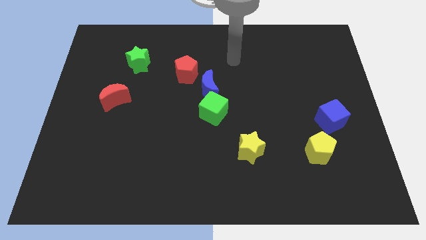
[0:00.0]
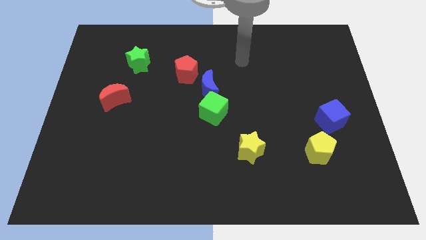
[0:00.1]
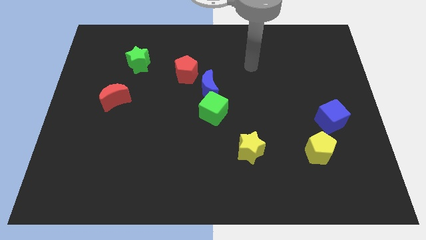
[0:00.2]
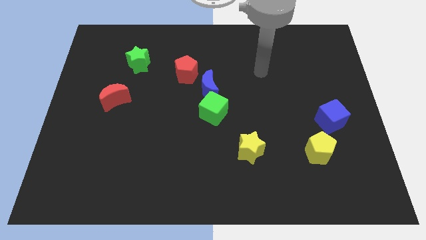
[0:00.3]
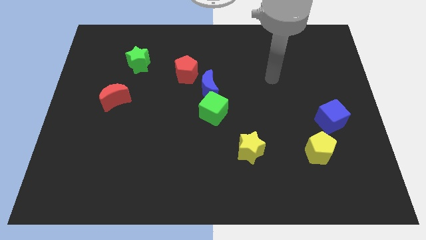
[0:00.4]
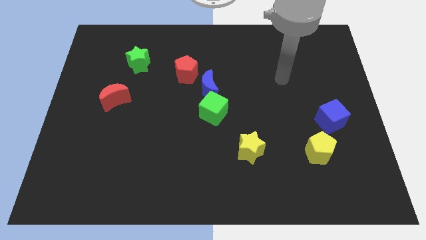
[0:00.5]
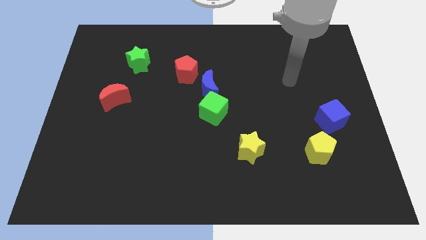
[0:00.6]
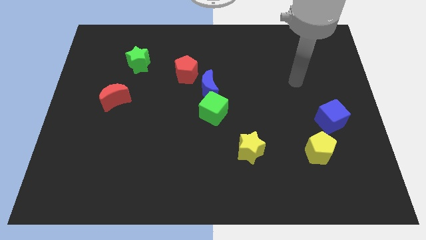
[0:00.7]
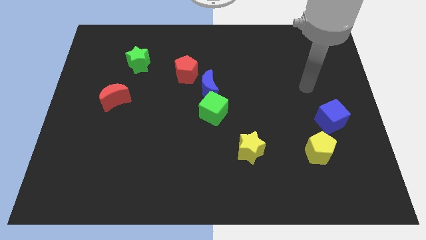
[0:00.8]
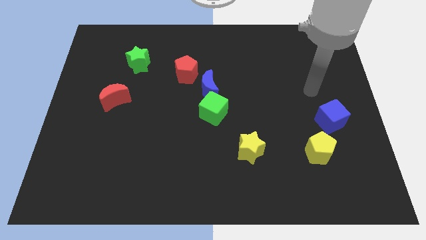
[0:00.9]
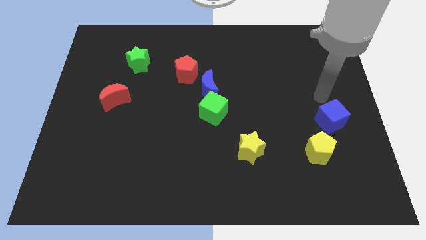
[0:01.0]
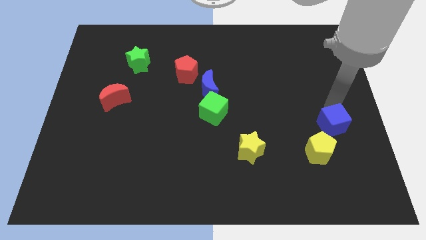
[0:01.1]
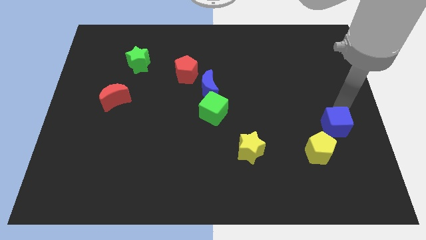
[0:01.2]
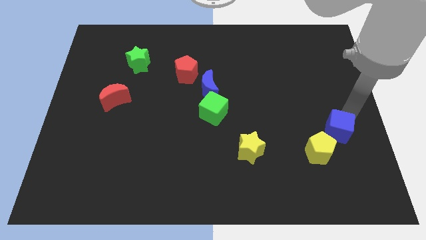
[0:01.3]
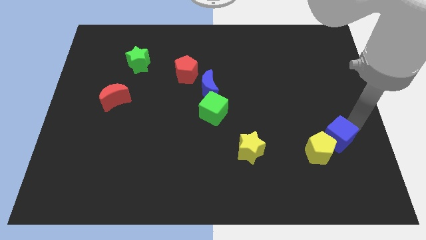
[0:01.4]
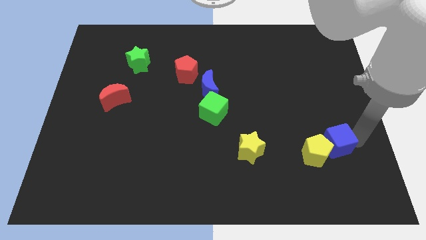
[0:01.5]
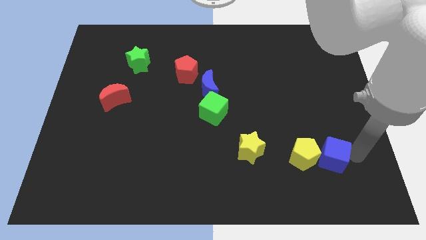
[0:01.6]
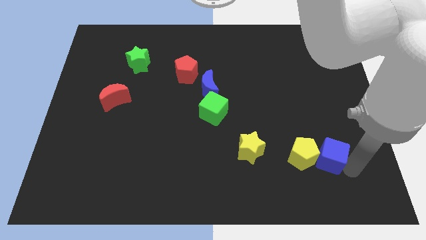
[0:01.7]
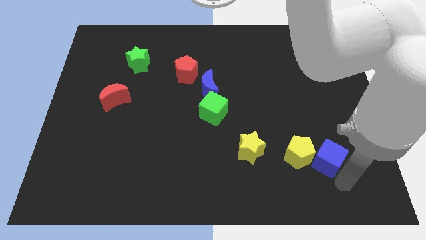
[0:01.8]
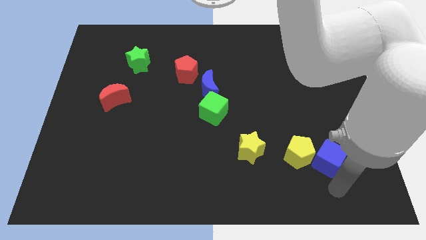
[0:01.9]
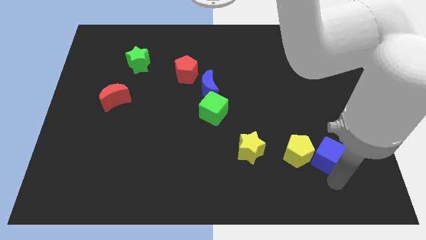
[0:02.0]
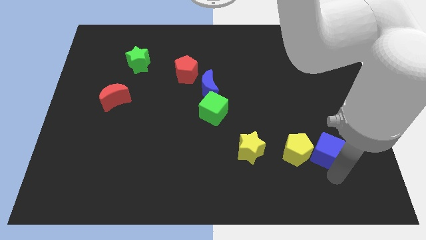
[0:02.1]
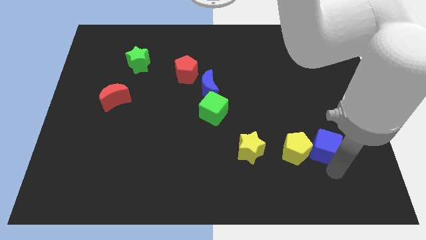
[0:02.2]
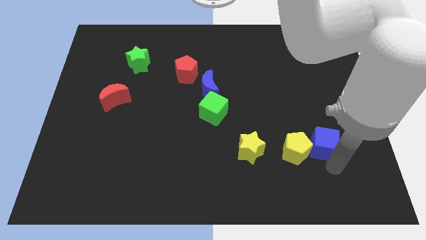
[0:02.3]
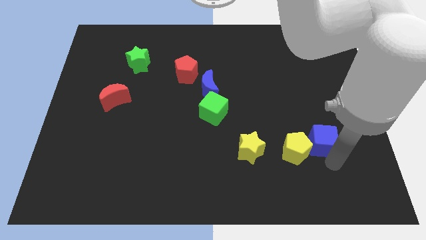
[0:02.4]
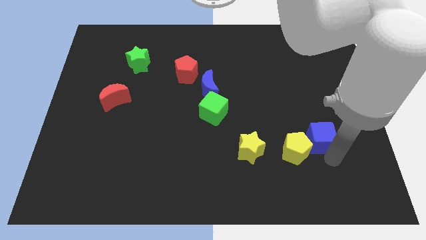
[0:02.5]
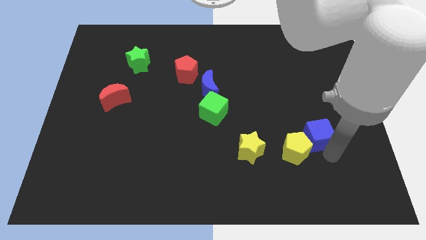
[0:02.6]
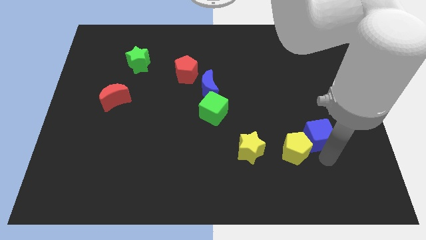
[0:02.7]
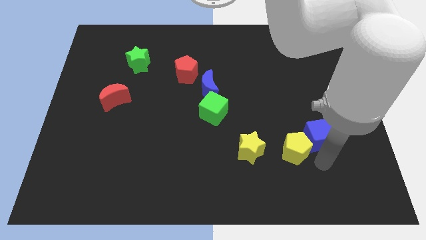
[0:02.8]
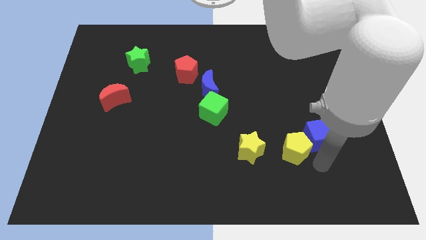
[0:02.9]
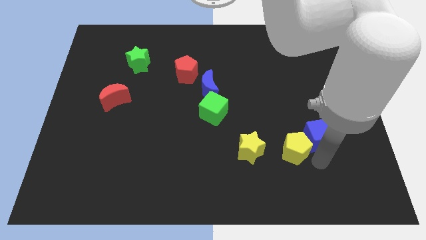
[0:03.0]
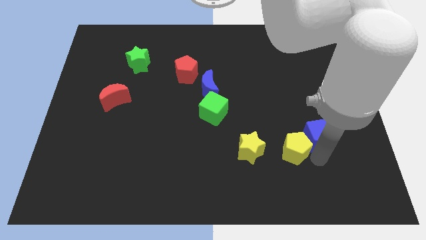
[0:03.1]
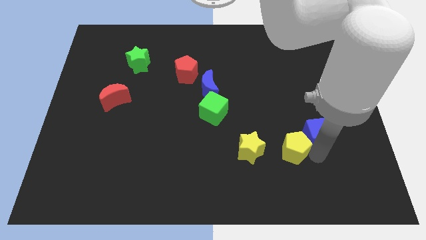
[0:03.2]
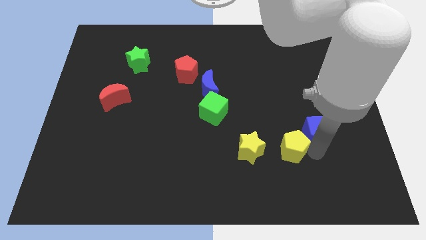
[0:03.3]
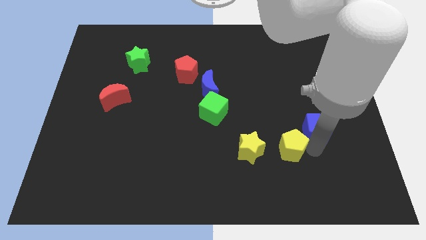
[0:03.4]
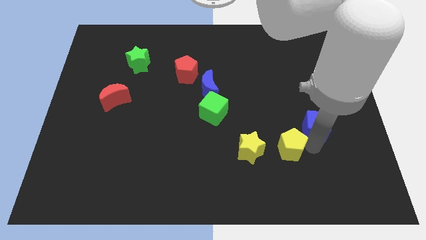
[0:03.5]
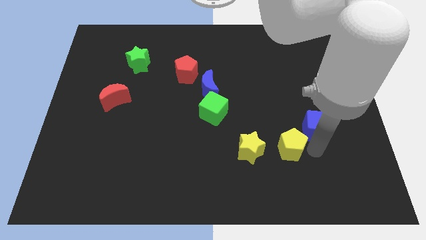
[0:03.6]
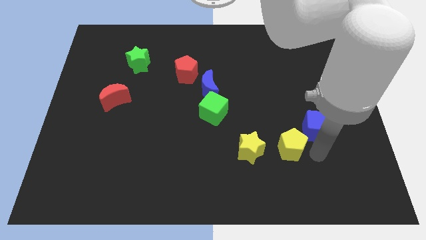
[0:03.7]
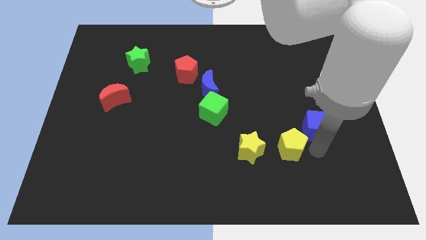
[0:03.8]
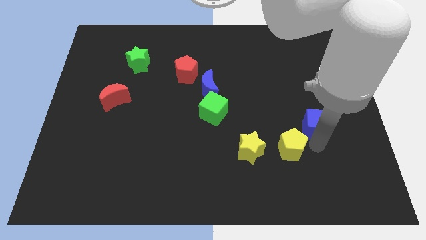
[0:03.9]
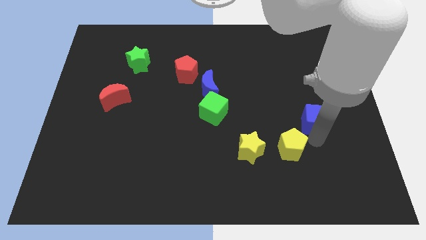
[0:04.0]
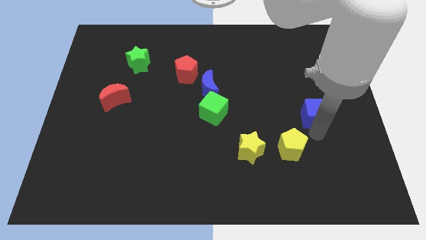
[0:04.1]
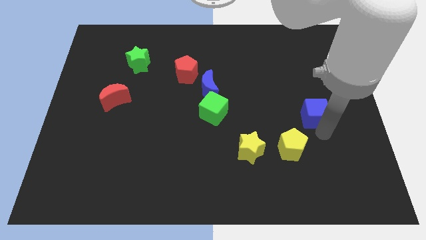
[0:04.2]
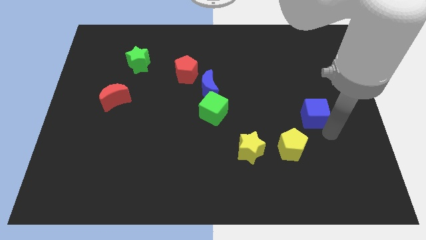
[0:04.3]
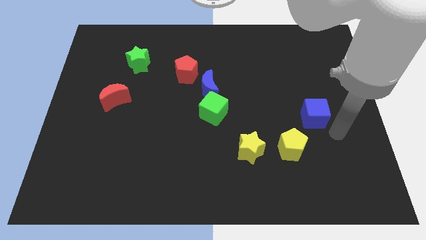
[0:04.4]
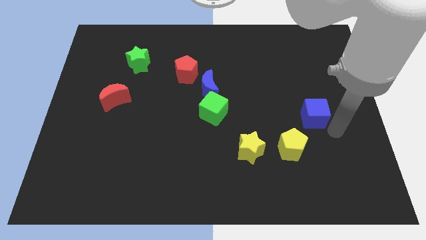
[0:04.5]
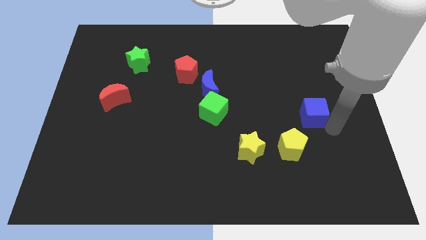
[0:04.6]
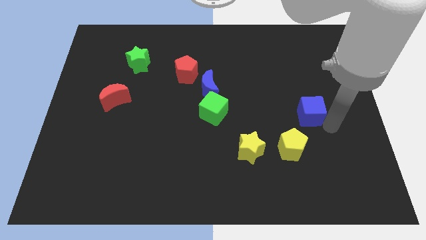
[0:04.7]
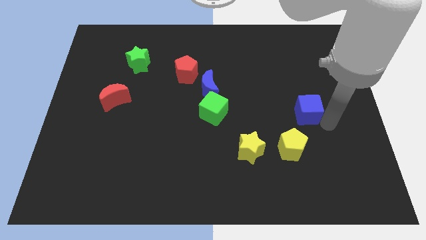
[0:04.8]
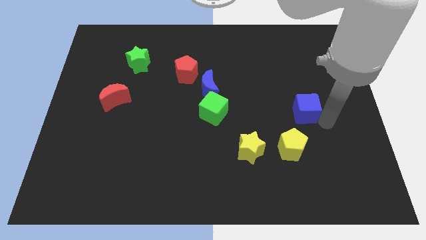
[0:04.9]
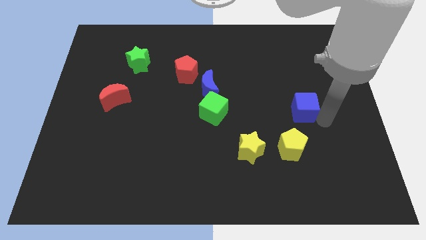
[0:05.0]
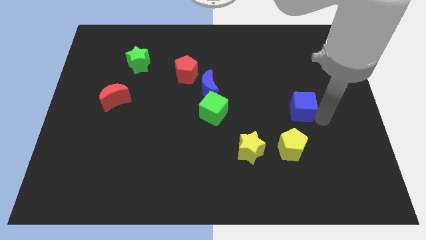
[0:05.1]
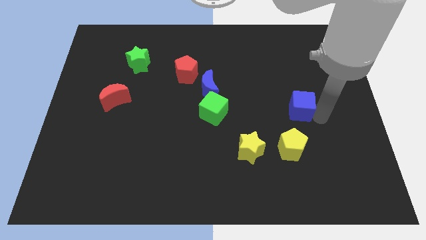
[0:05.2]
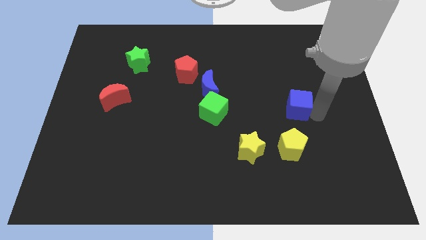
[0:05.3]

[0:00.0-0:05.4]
slide the blue cube somewhat diagonally upwards and left

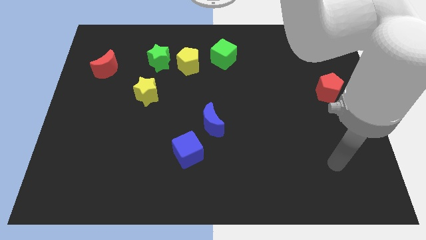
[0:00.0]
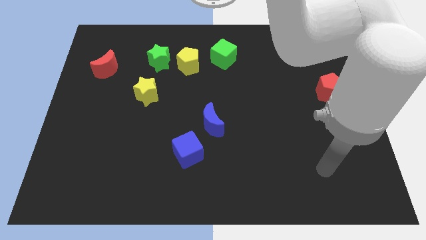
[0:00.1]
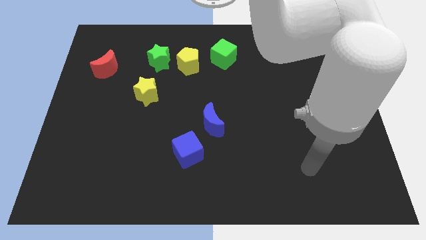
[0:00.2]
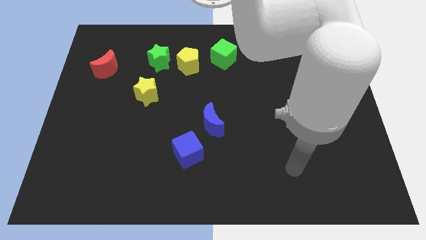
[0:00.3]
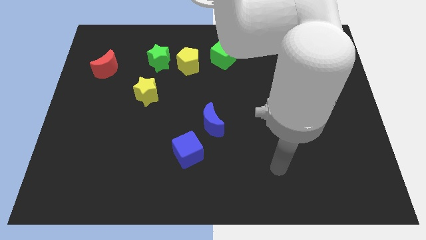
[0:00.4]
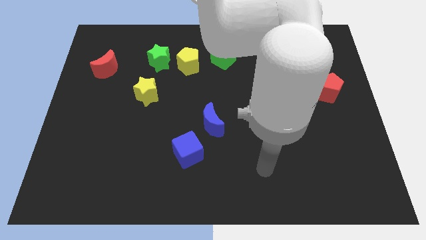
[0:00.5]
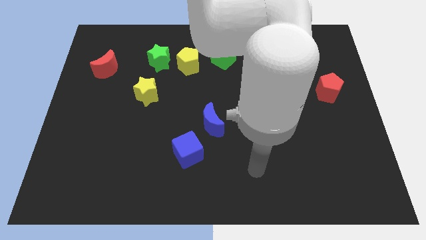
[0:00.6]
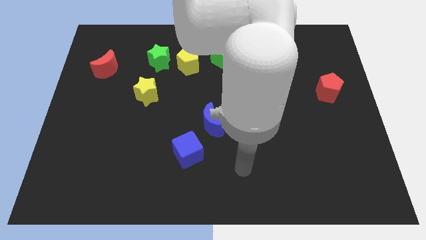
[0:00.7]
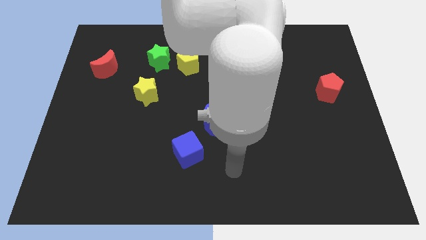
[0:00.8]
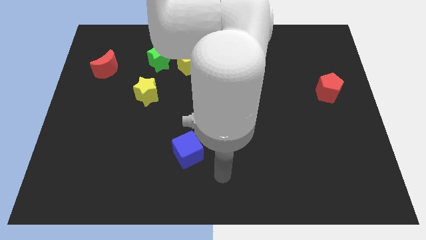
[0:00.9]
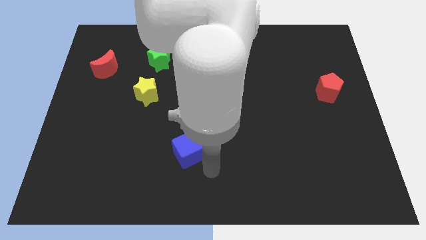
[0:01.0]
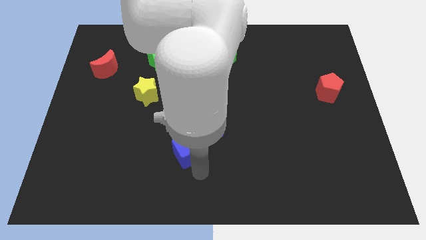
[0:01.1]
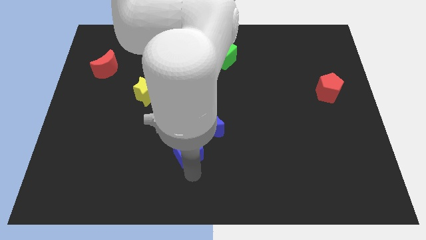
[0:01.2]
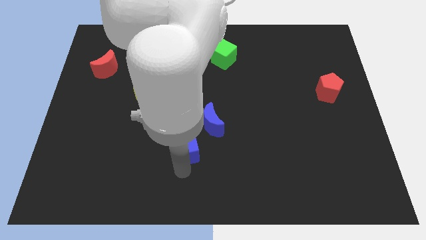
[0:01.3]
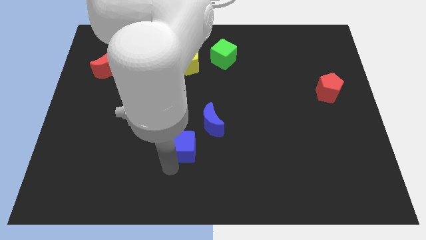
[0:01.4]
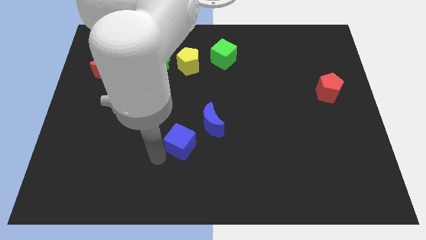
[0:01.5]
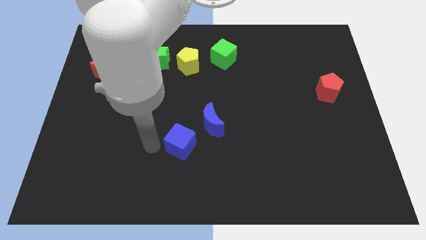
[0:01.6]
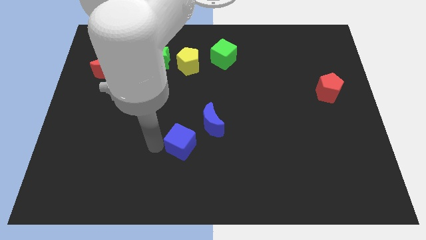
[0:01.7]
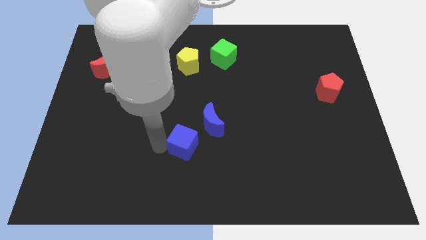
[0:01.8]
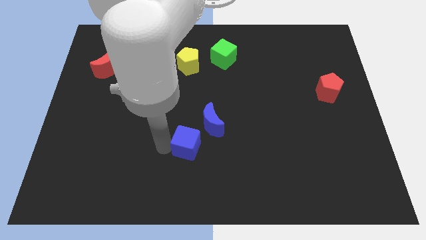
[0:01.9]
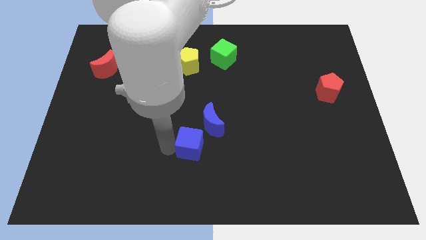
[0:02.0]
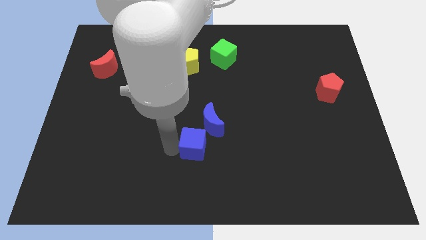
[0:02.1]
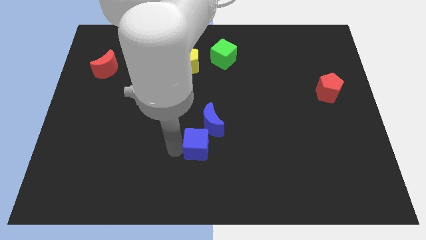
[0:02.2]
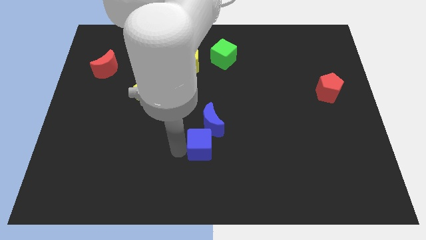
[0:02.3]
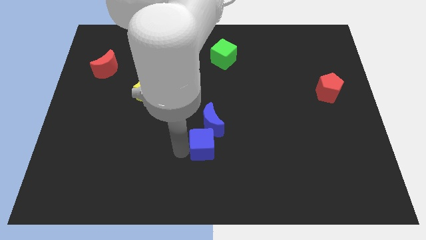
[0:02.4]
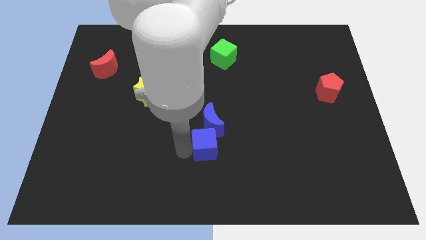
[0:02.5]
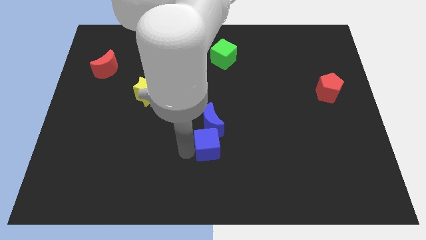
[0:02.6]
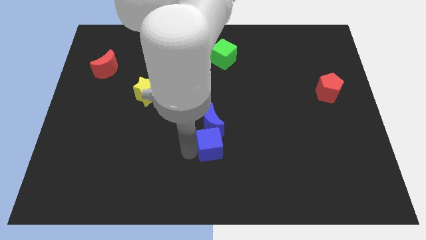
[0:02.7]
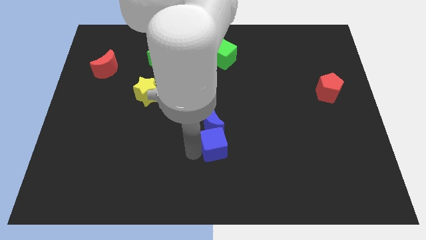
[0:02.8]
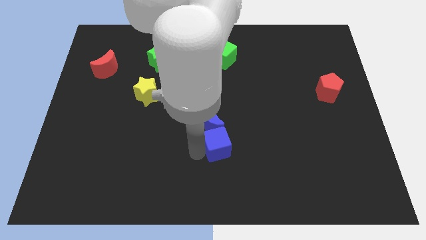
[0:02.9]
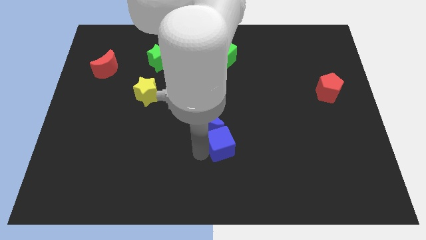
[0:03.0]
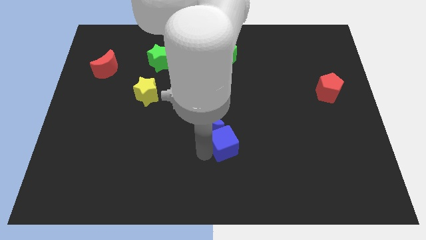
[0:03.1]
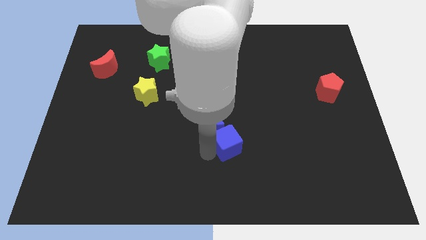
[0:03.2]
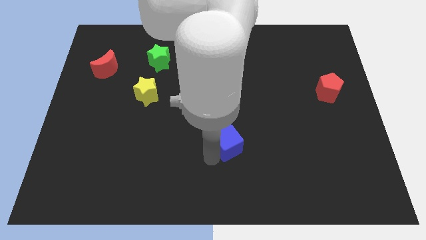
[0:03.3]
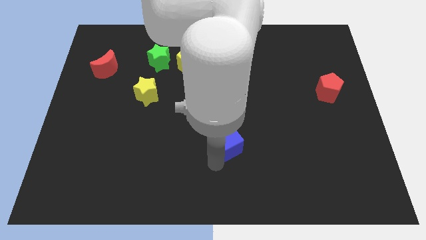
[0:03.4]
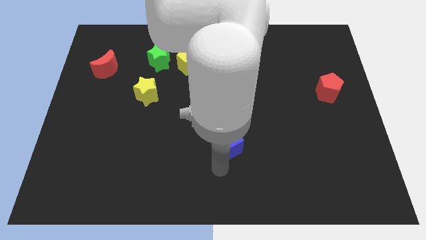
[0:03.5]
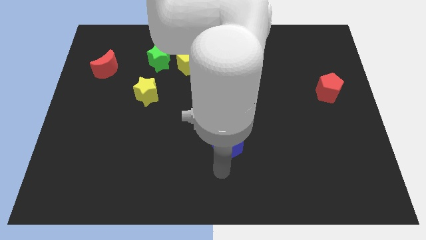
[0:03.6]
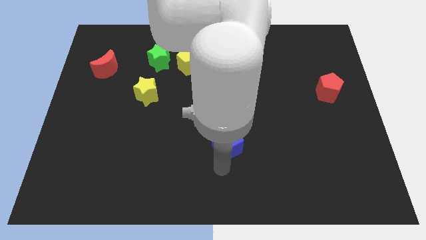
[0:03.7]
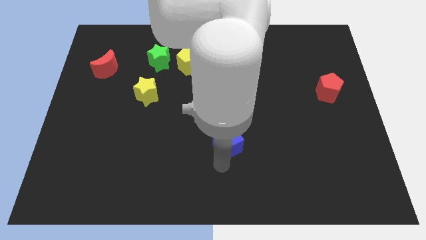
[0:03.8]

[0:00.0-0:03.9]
move the blue cube somewhat upwards and then right
